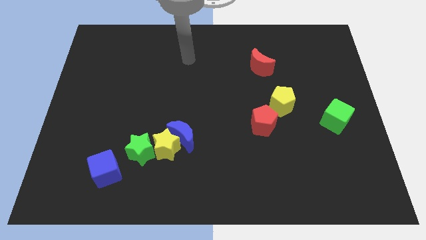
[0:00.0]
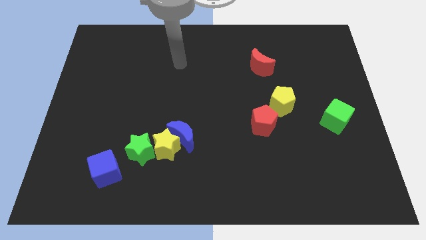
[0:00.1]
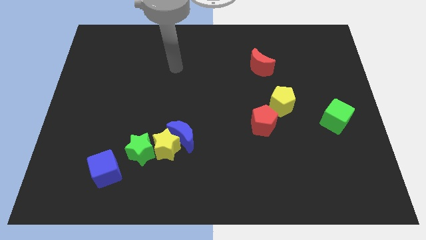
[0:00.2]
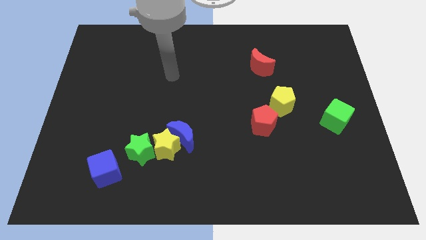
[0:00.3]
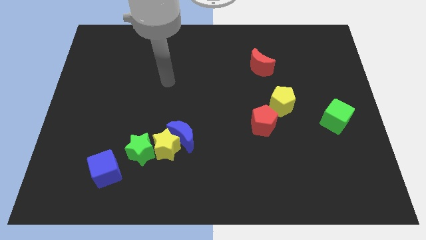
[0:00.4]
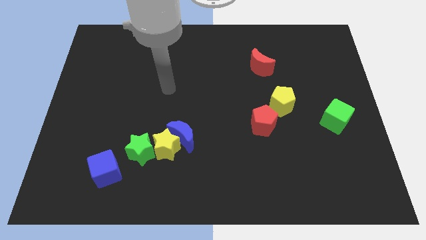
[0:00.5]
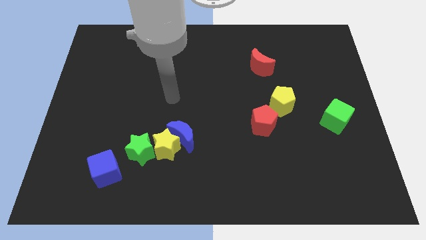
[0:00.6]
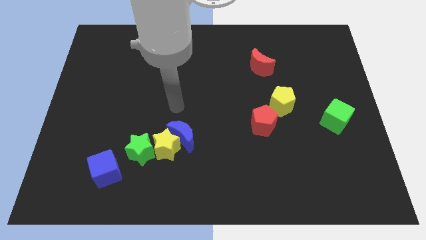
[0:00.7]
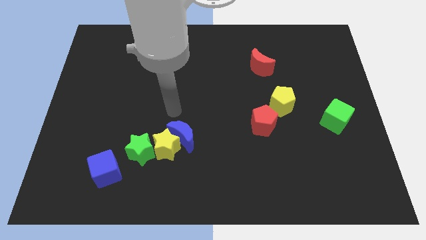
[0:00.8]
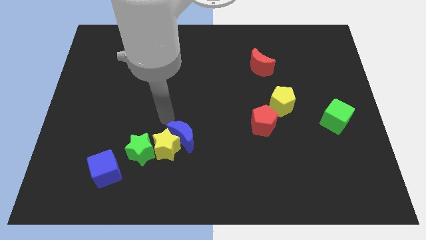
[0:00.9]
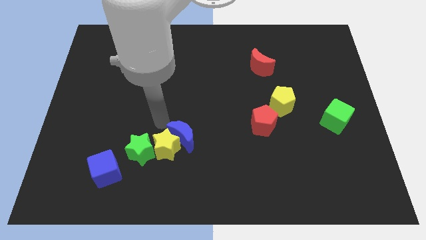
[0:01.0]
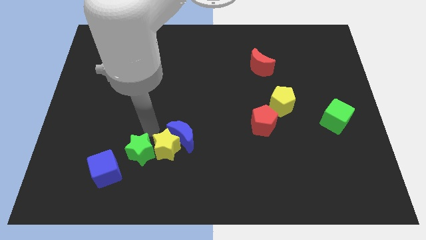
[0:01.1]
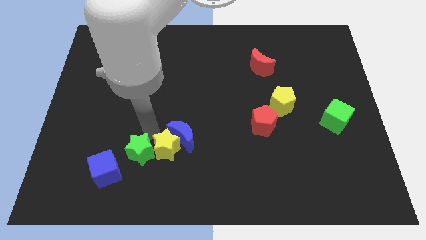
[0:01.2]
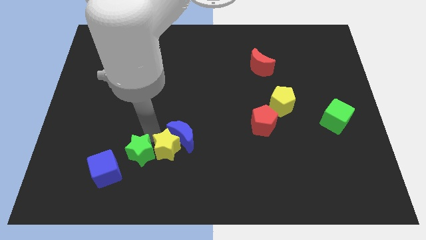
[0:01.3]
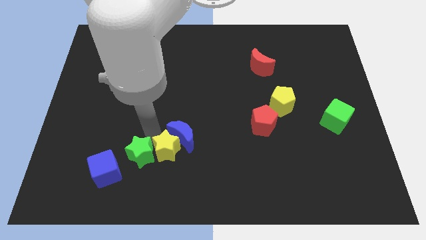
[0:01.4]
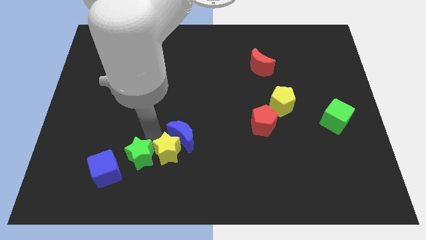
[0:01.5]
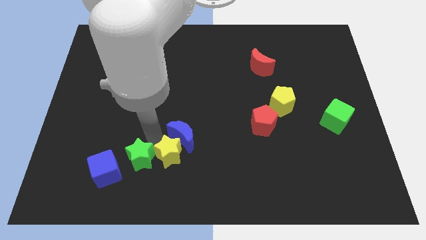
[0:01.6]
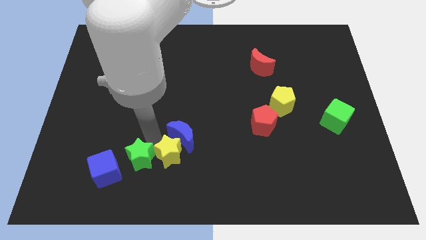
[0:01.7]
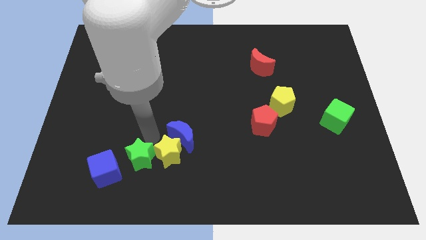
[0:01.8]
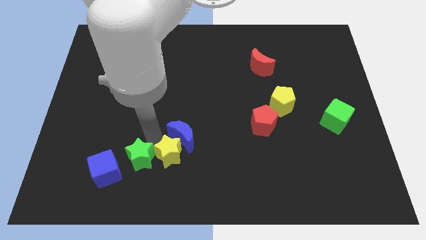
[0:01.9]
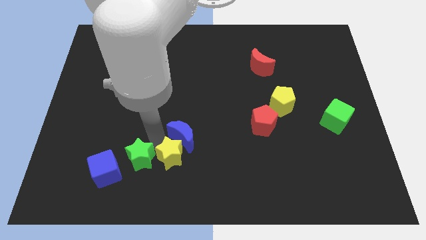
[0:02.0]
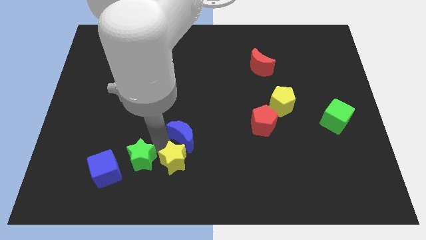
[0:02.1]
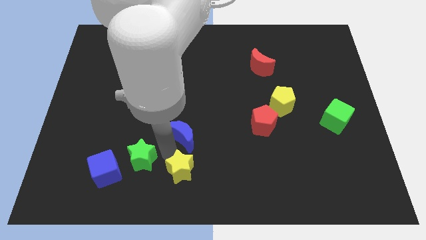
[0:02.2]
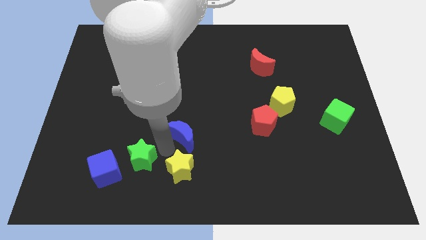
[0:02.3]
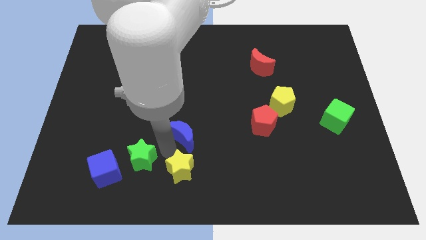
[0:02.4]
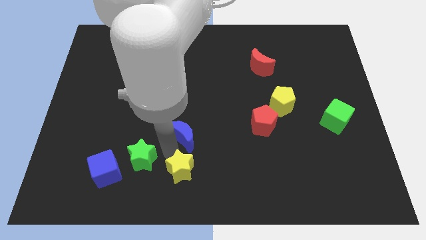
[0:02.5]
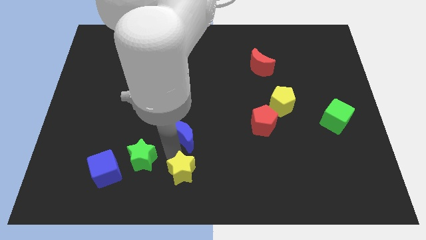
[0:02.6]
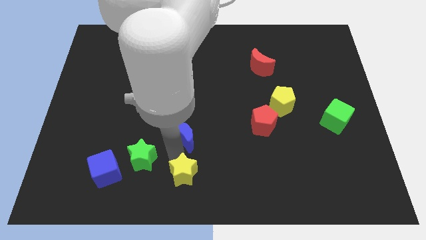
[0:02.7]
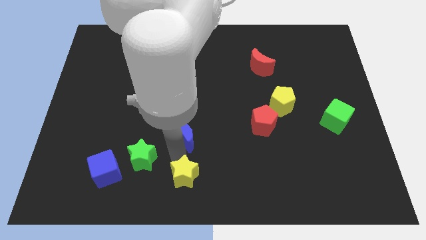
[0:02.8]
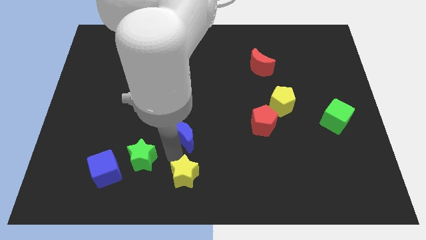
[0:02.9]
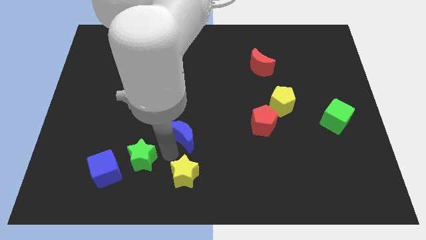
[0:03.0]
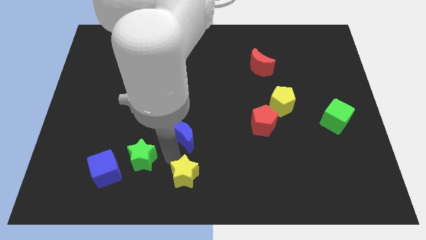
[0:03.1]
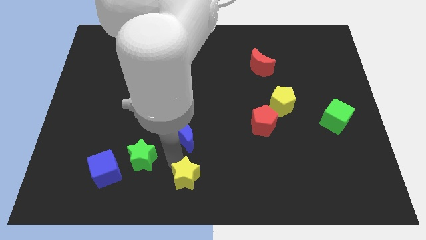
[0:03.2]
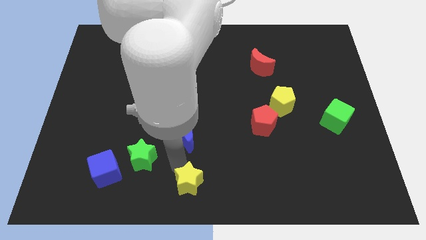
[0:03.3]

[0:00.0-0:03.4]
move the yellow star away from the blue moon and green star

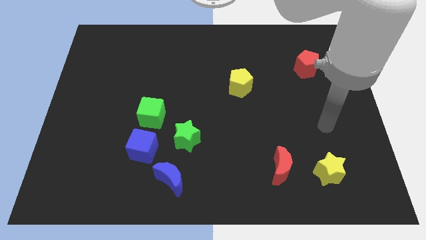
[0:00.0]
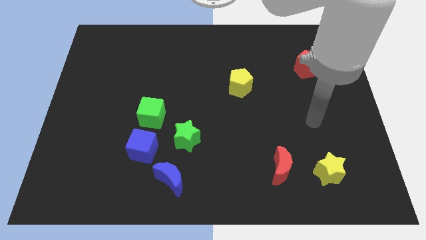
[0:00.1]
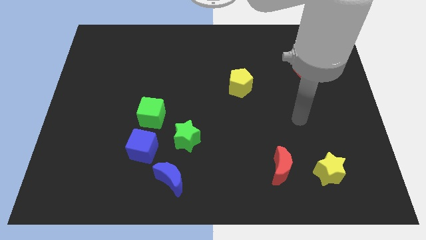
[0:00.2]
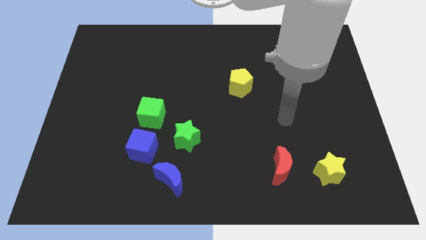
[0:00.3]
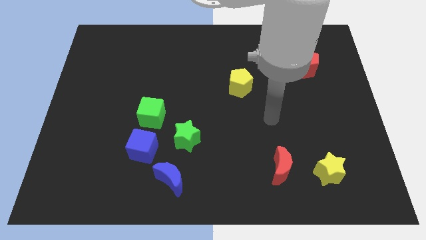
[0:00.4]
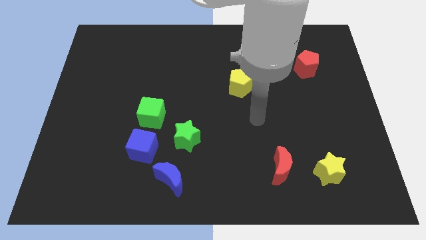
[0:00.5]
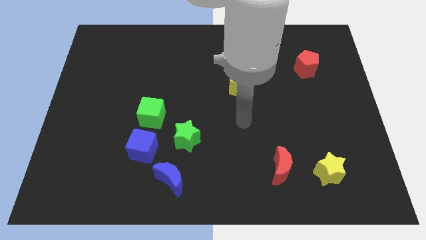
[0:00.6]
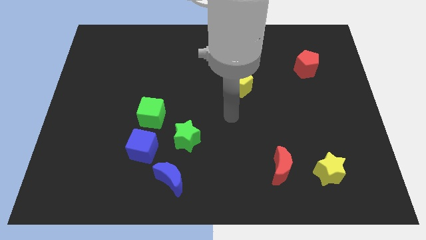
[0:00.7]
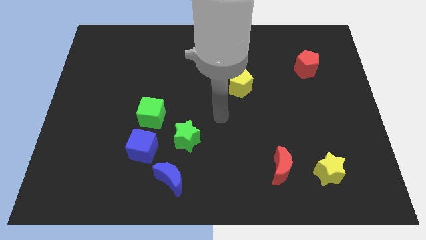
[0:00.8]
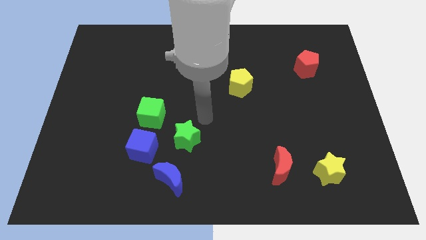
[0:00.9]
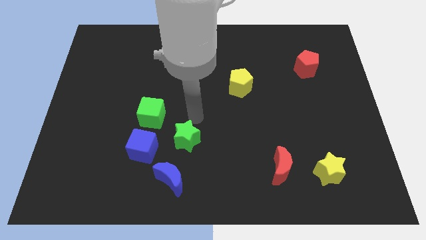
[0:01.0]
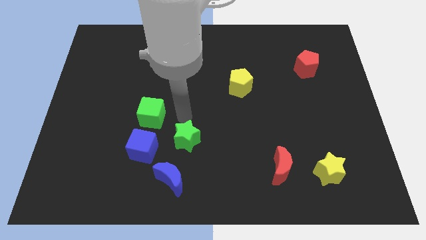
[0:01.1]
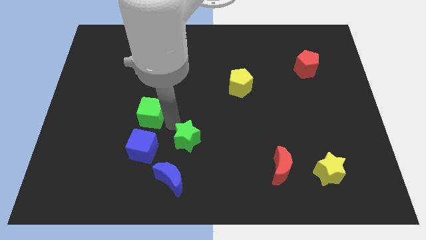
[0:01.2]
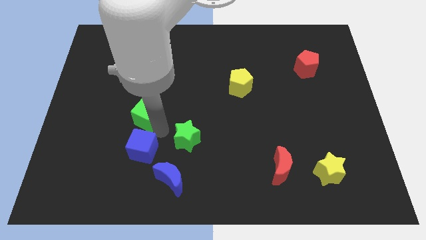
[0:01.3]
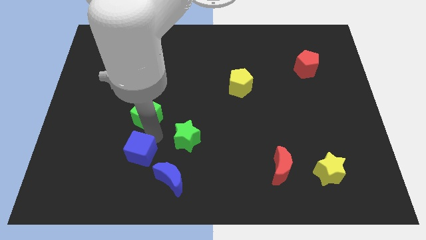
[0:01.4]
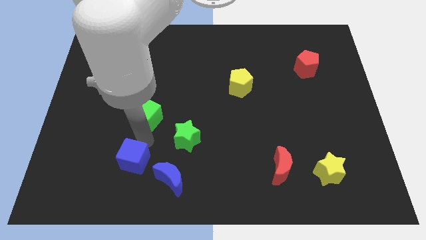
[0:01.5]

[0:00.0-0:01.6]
separate the green cube from the blue cube

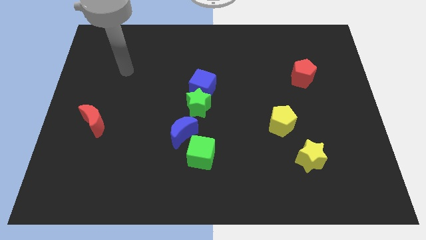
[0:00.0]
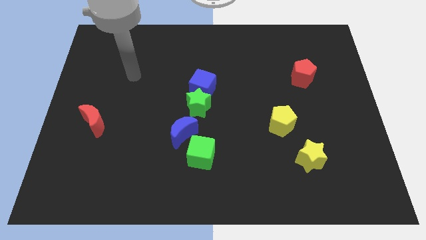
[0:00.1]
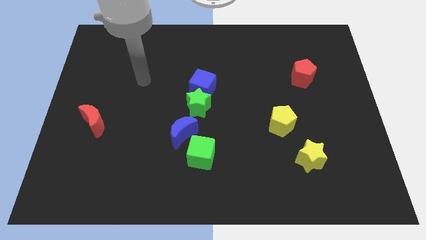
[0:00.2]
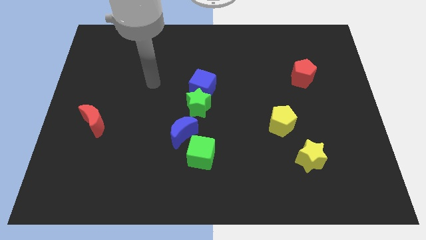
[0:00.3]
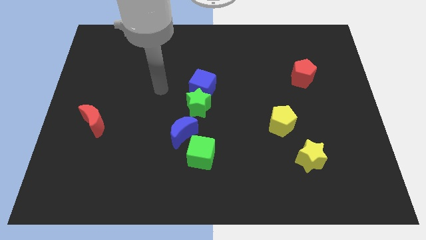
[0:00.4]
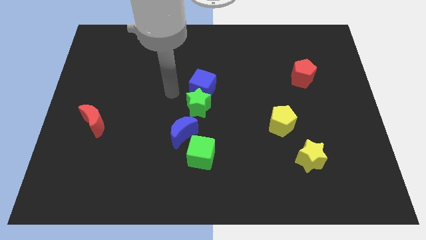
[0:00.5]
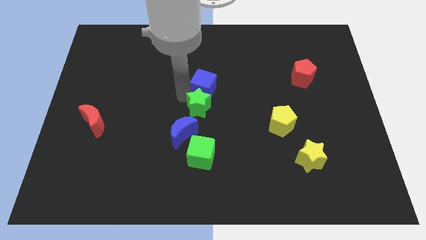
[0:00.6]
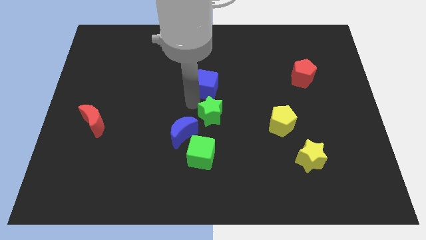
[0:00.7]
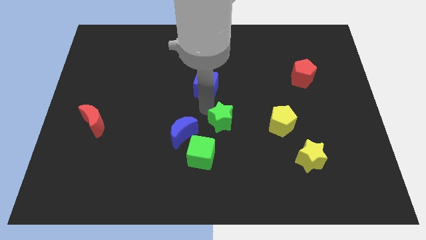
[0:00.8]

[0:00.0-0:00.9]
pull the blue cube apart from the green star

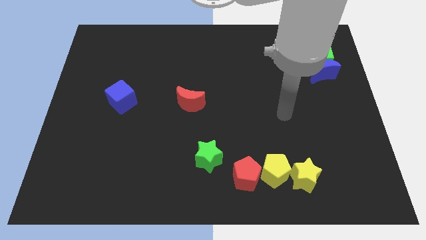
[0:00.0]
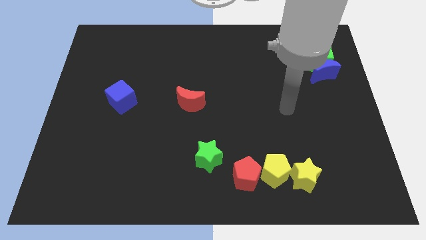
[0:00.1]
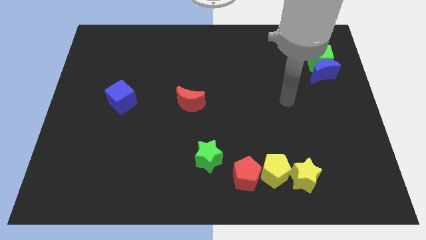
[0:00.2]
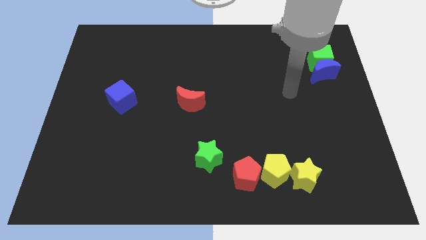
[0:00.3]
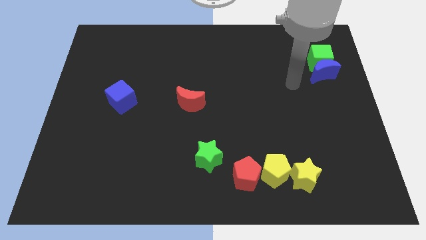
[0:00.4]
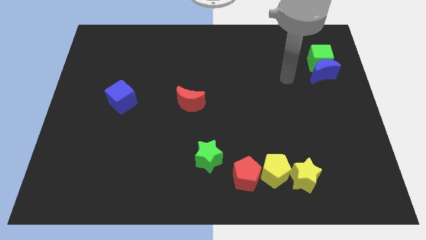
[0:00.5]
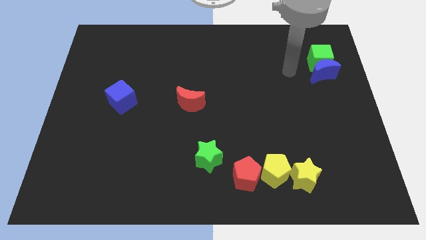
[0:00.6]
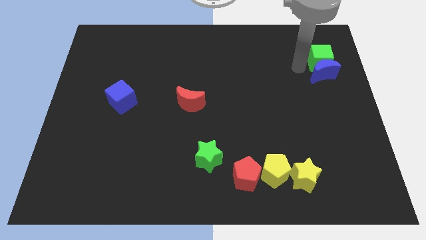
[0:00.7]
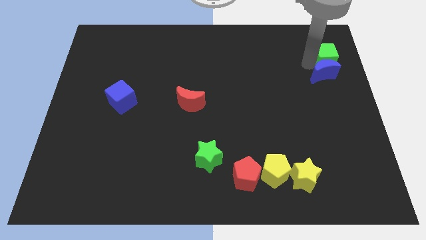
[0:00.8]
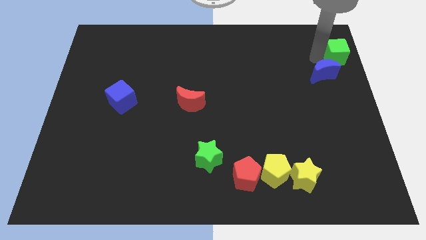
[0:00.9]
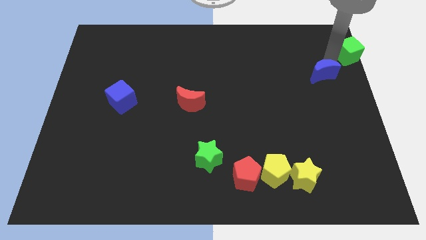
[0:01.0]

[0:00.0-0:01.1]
separate the blue moon from the green cube

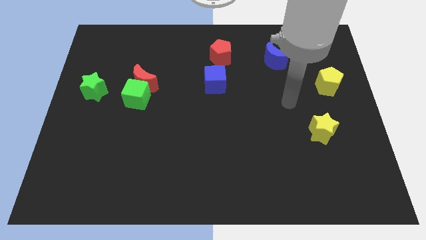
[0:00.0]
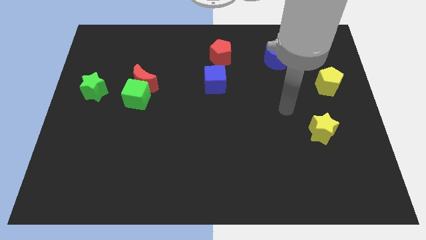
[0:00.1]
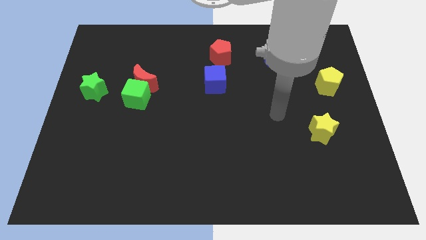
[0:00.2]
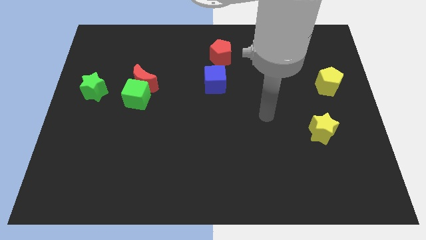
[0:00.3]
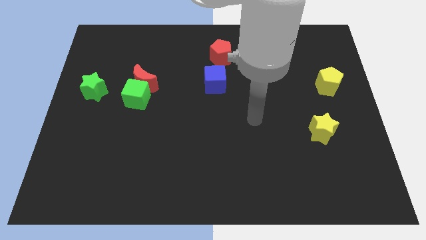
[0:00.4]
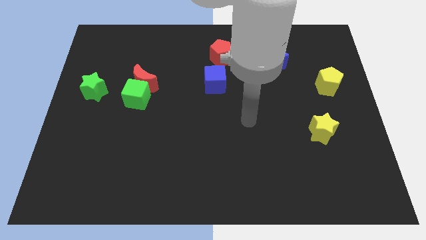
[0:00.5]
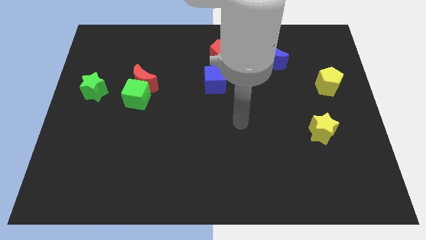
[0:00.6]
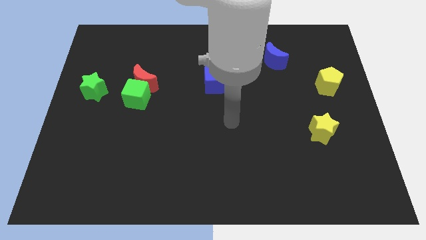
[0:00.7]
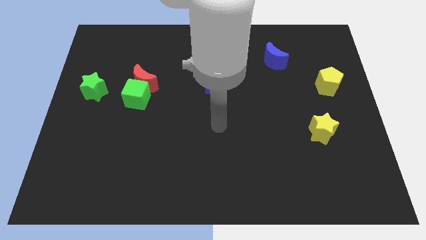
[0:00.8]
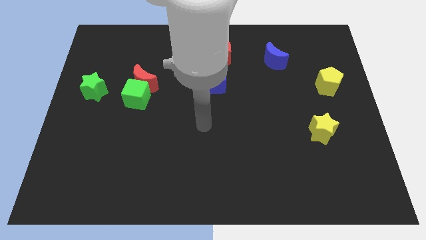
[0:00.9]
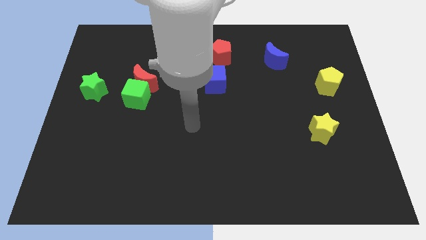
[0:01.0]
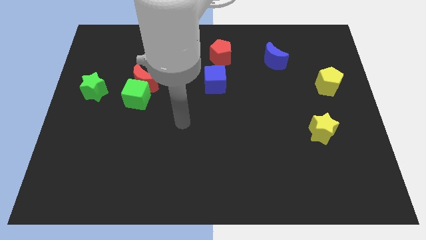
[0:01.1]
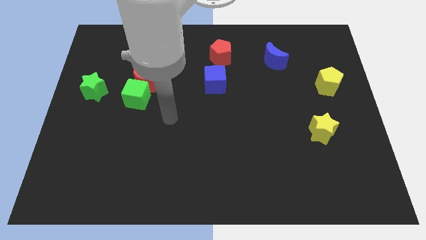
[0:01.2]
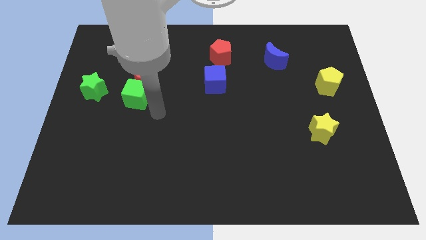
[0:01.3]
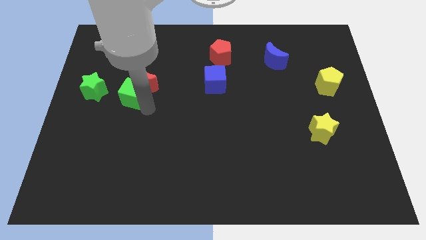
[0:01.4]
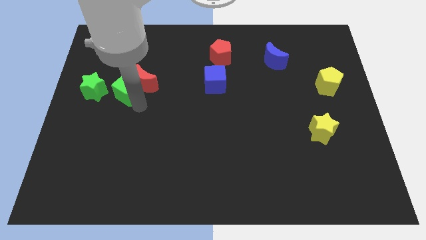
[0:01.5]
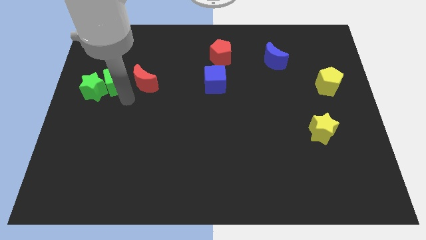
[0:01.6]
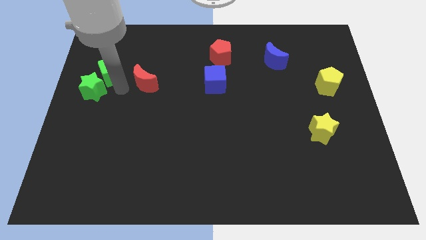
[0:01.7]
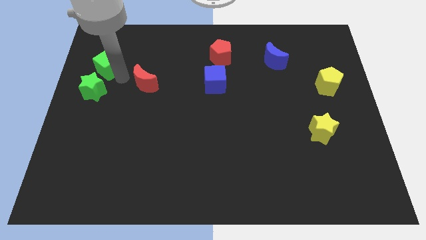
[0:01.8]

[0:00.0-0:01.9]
move the red moon away from the green cube

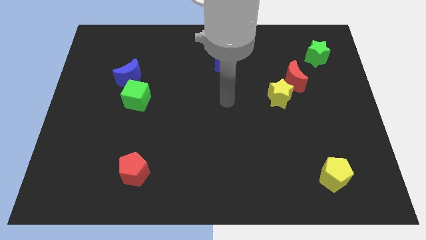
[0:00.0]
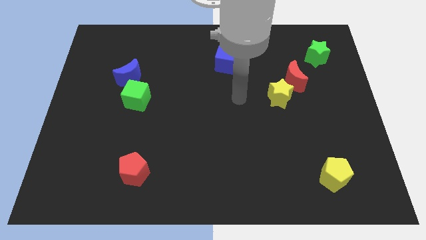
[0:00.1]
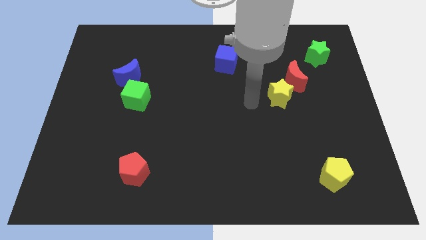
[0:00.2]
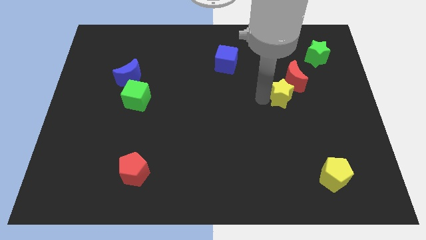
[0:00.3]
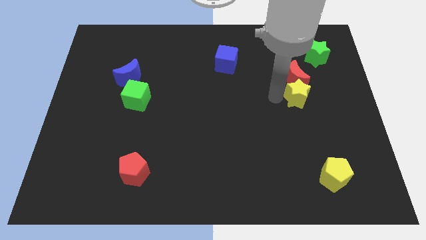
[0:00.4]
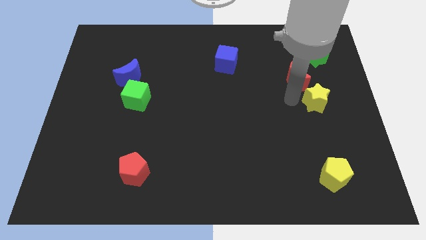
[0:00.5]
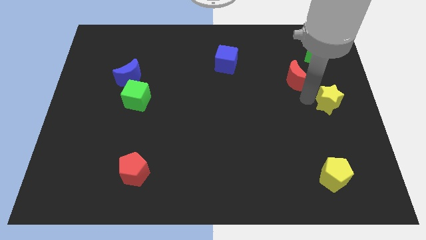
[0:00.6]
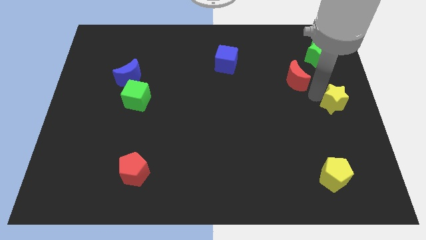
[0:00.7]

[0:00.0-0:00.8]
separate the red moon from the yellow star
